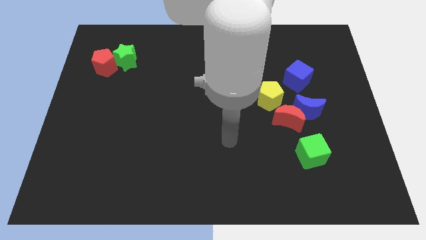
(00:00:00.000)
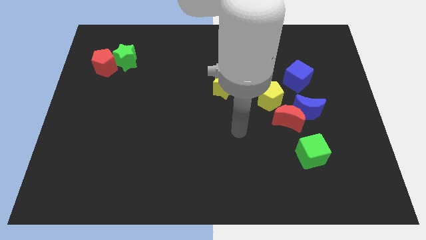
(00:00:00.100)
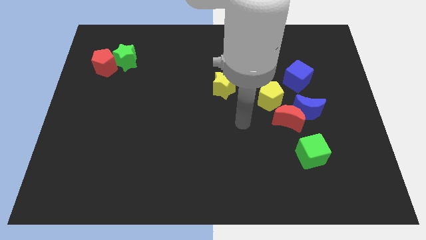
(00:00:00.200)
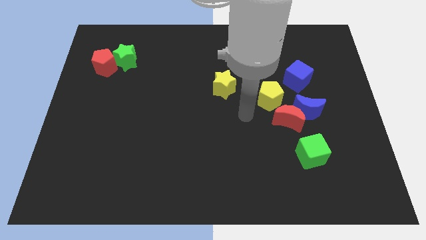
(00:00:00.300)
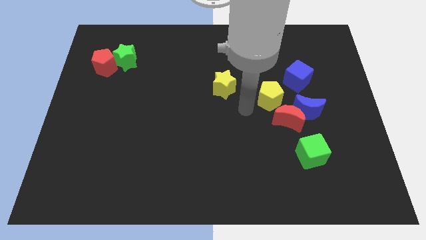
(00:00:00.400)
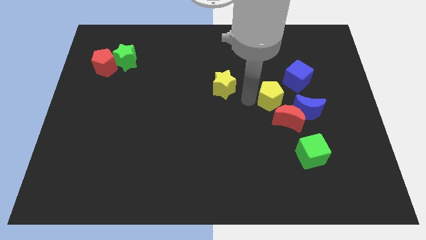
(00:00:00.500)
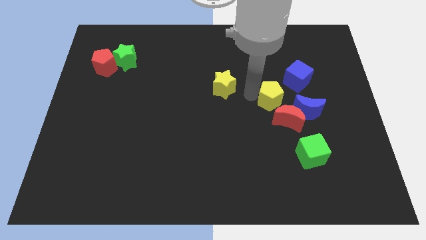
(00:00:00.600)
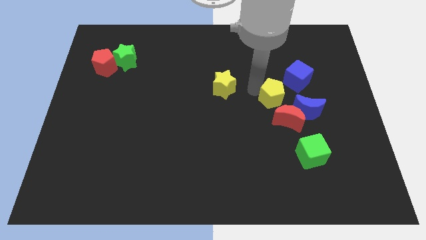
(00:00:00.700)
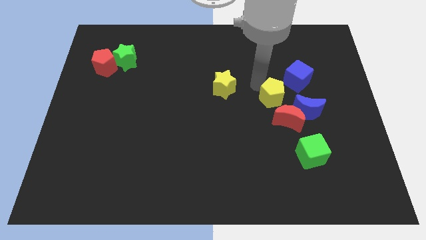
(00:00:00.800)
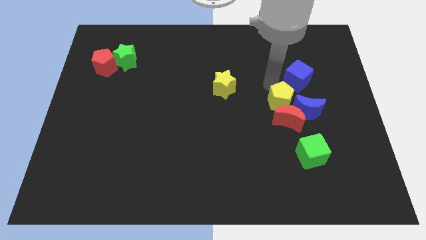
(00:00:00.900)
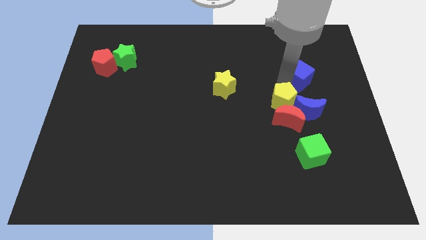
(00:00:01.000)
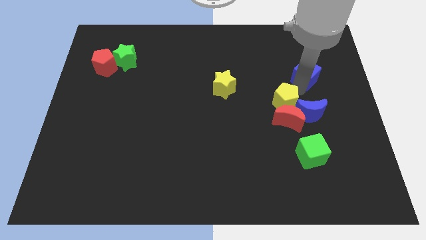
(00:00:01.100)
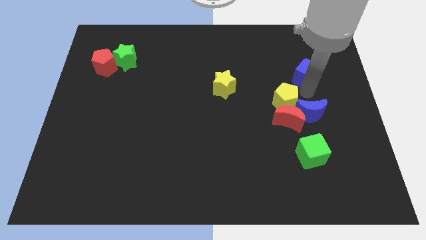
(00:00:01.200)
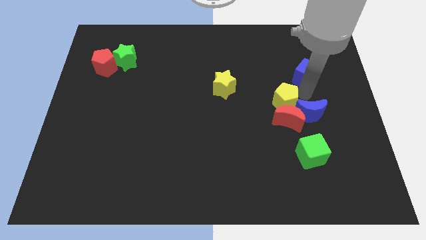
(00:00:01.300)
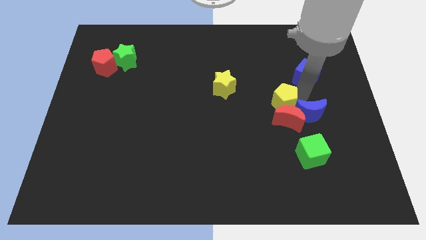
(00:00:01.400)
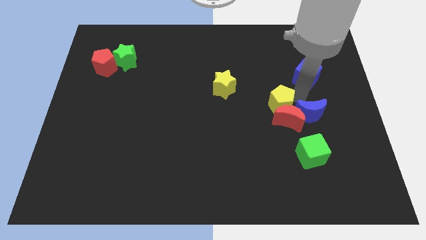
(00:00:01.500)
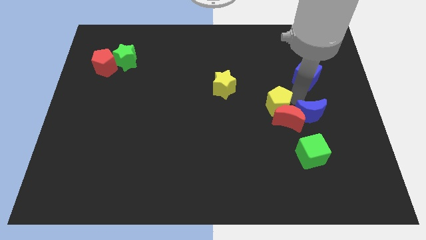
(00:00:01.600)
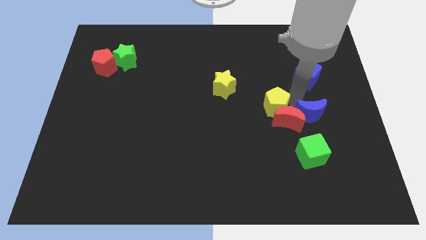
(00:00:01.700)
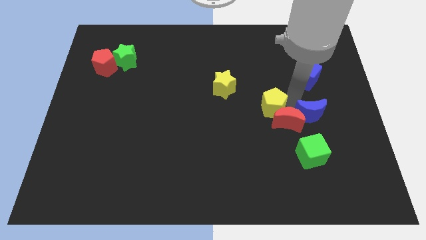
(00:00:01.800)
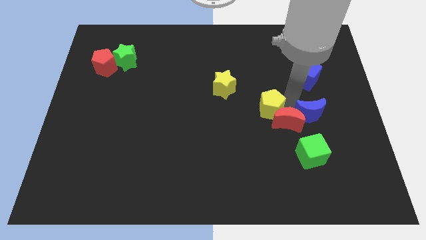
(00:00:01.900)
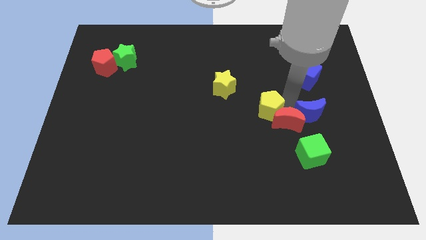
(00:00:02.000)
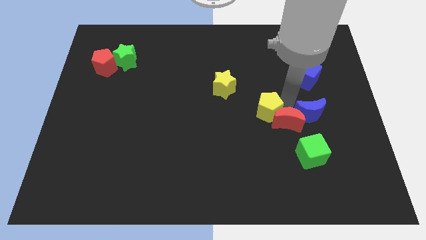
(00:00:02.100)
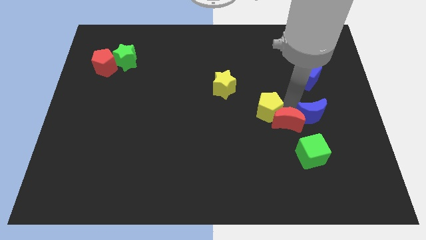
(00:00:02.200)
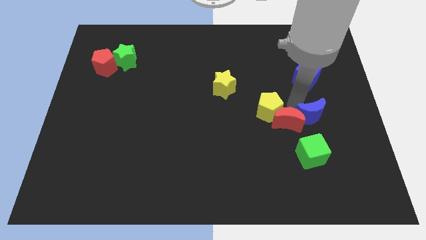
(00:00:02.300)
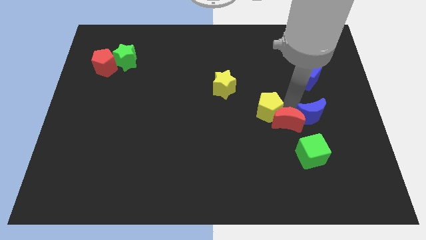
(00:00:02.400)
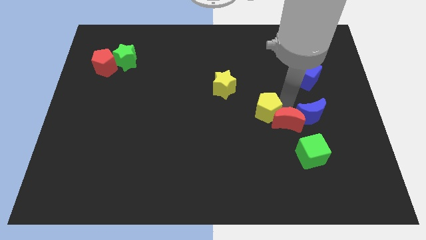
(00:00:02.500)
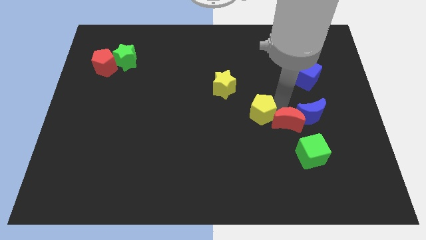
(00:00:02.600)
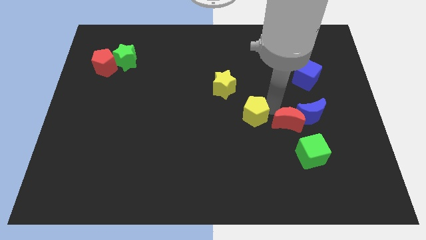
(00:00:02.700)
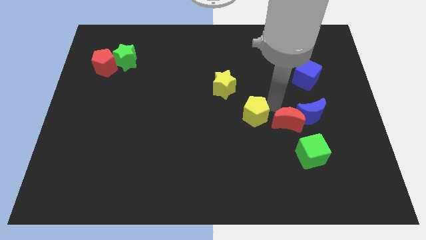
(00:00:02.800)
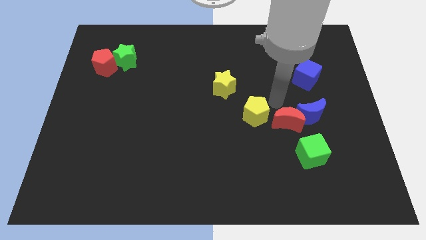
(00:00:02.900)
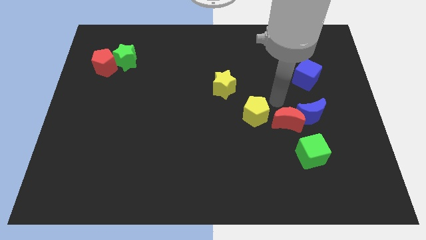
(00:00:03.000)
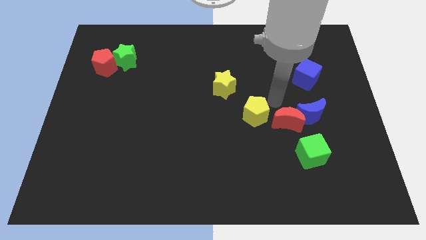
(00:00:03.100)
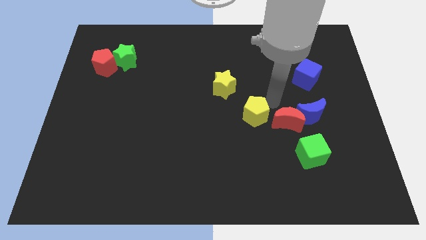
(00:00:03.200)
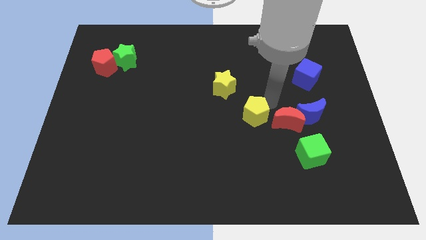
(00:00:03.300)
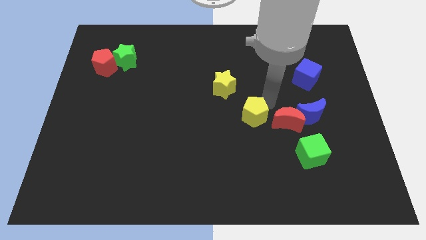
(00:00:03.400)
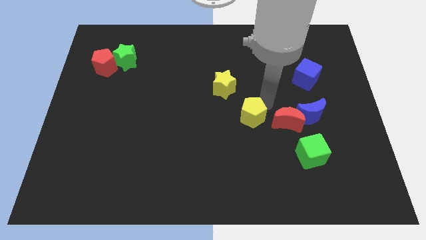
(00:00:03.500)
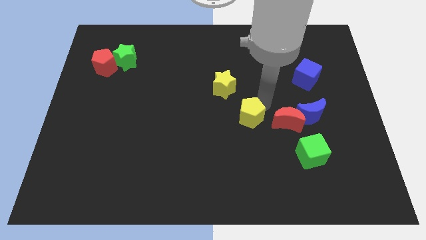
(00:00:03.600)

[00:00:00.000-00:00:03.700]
slightly move the yellow pentagon down and to the left diagonally

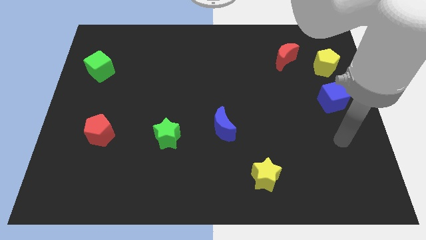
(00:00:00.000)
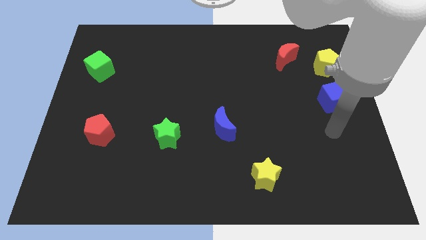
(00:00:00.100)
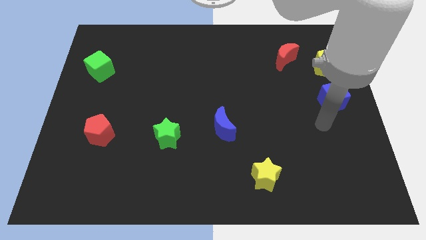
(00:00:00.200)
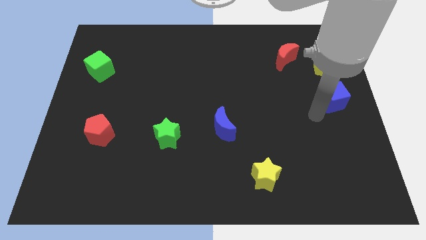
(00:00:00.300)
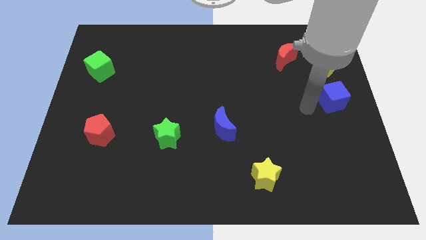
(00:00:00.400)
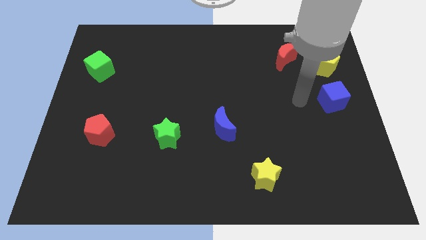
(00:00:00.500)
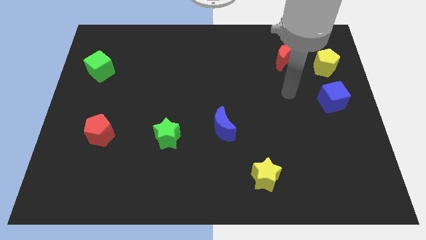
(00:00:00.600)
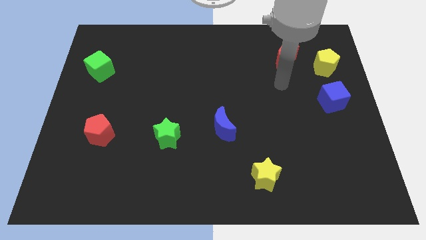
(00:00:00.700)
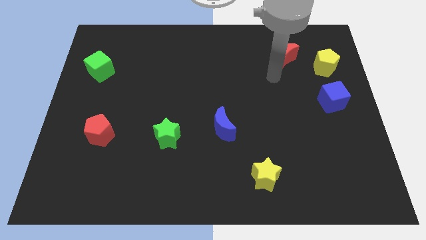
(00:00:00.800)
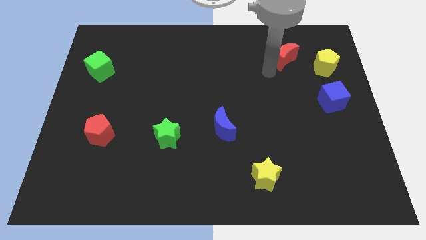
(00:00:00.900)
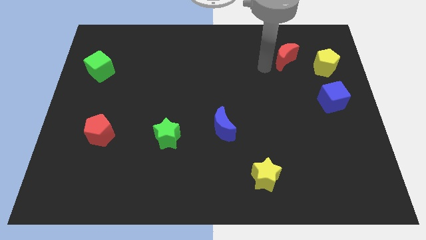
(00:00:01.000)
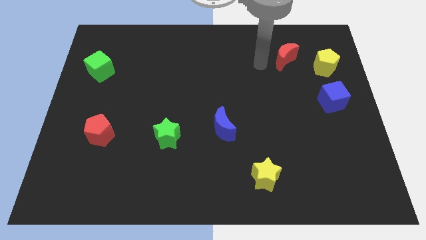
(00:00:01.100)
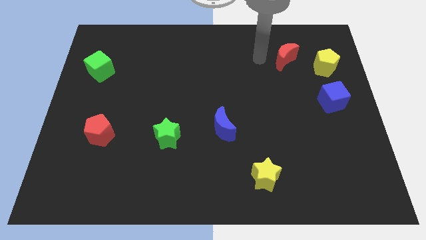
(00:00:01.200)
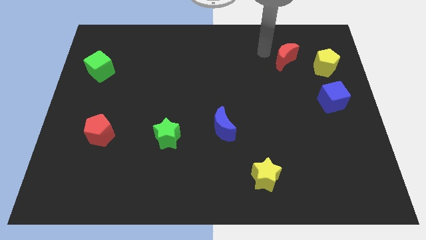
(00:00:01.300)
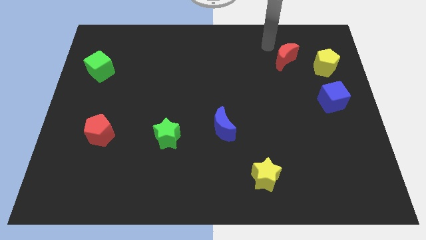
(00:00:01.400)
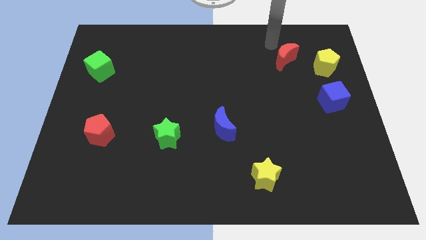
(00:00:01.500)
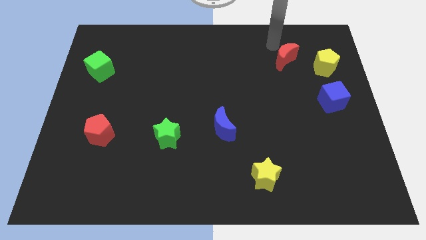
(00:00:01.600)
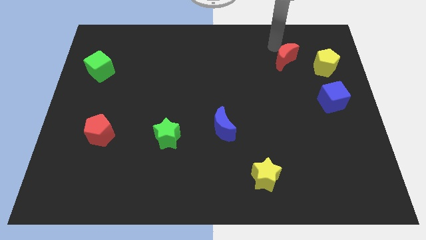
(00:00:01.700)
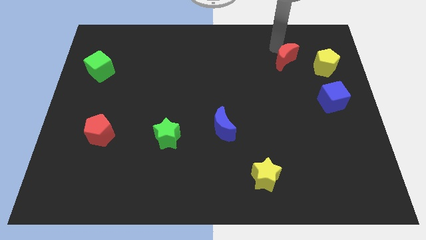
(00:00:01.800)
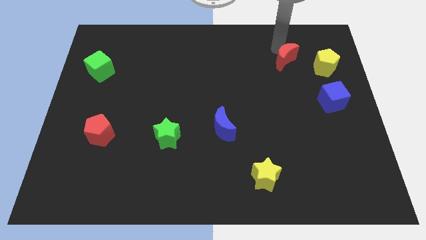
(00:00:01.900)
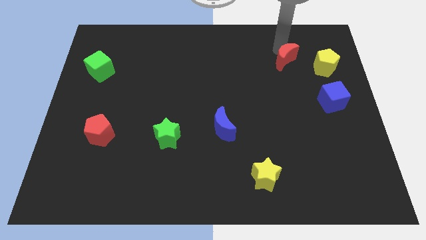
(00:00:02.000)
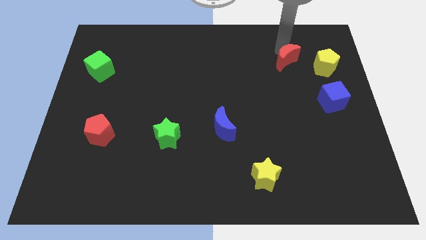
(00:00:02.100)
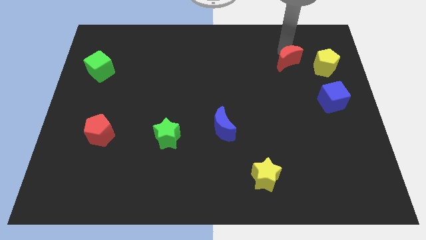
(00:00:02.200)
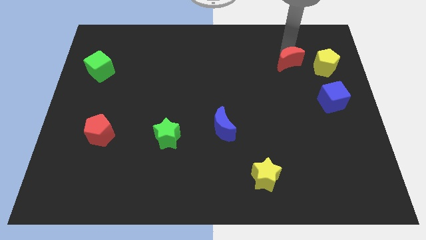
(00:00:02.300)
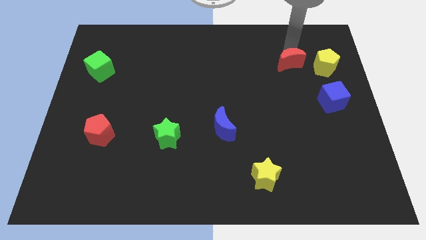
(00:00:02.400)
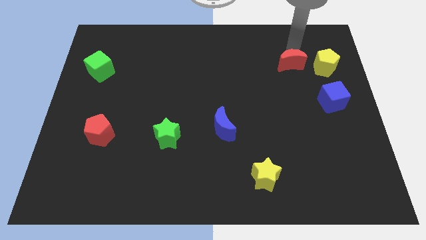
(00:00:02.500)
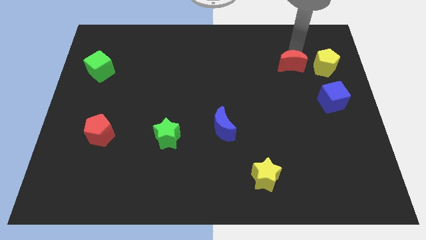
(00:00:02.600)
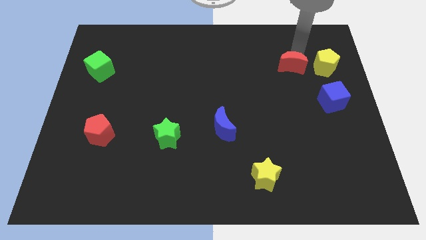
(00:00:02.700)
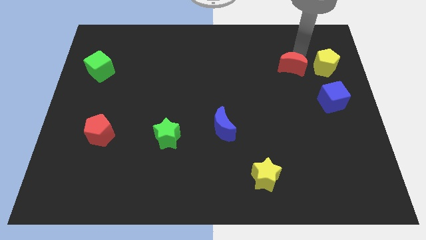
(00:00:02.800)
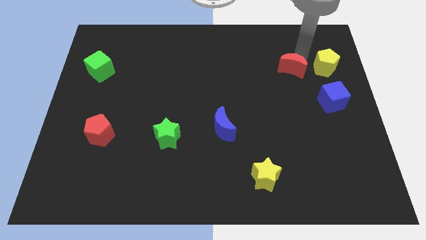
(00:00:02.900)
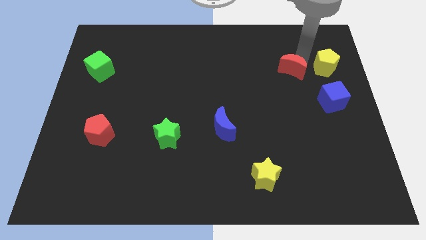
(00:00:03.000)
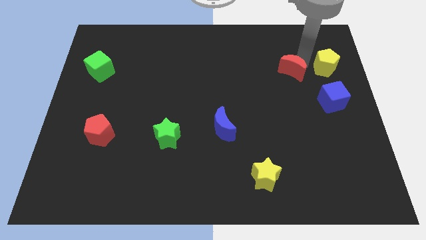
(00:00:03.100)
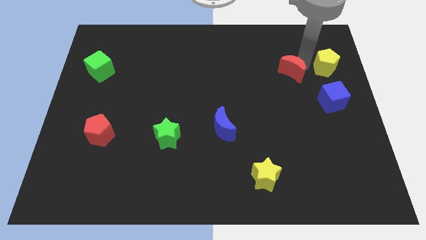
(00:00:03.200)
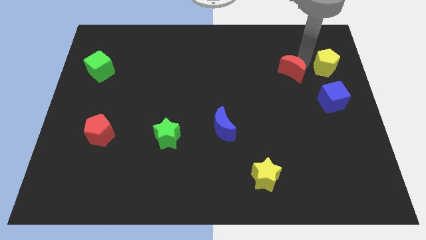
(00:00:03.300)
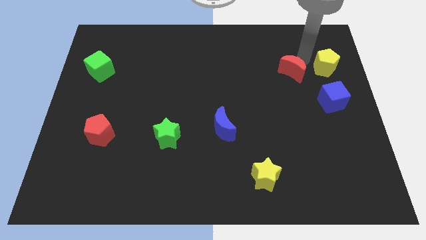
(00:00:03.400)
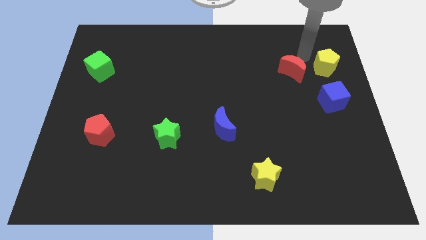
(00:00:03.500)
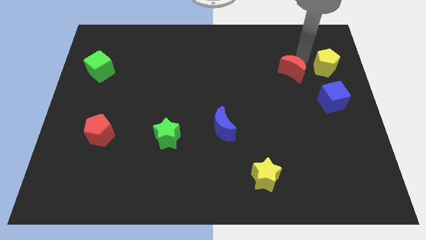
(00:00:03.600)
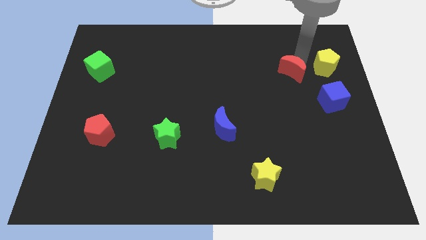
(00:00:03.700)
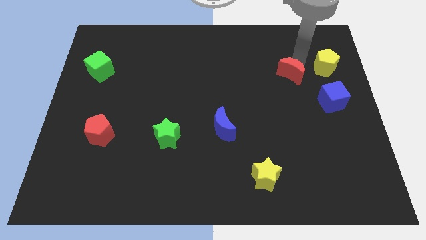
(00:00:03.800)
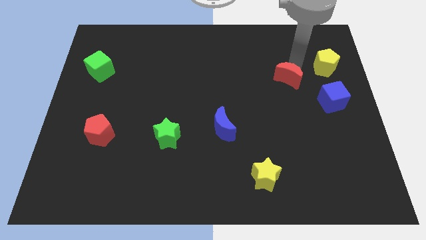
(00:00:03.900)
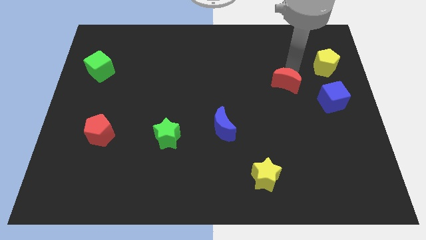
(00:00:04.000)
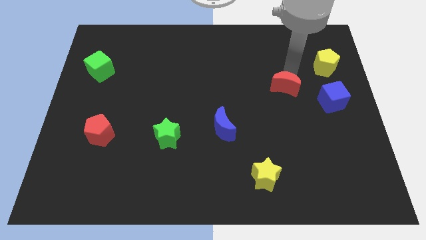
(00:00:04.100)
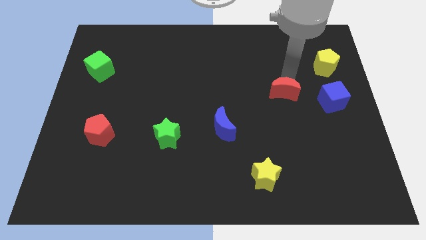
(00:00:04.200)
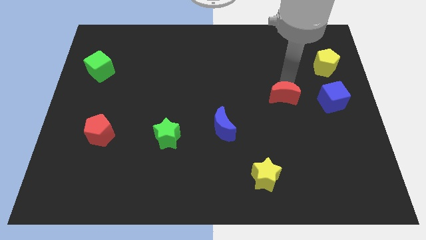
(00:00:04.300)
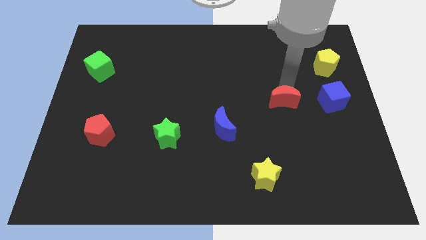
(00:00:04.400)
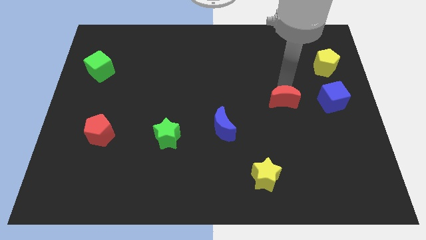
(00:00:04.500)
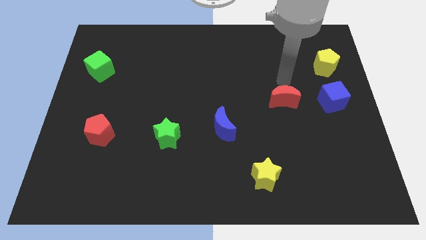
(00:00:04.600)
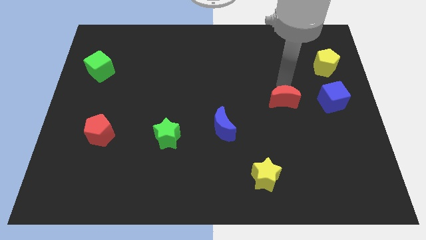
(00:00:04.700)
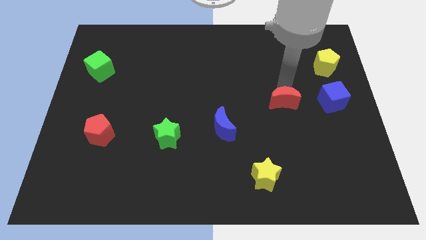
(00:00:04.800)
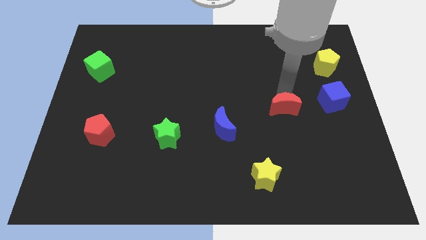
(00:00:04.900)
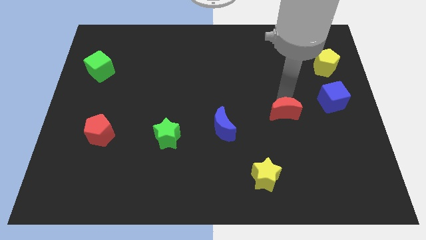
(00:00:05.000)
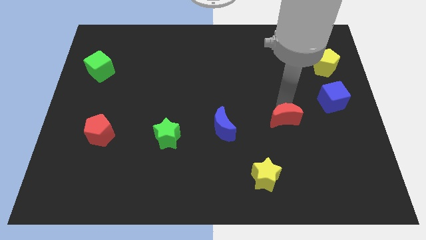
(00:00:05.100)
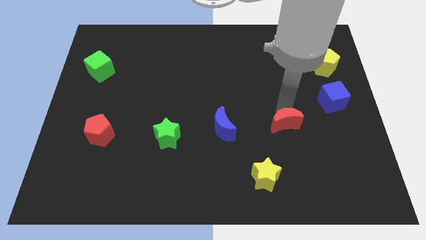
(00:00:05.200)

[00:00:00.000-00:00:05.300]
push the red moon down
